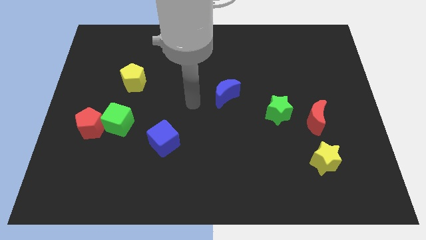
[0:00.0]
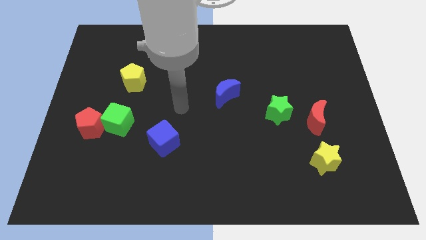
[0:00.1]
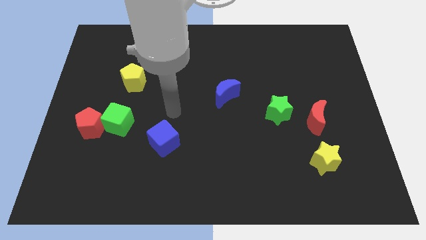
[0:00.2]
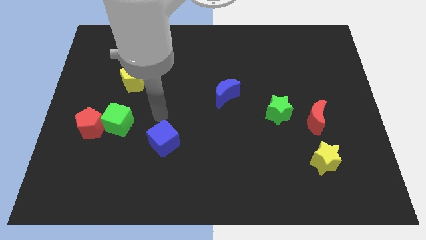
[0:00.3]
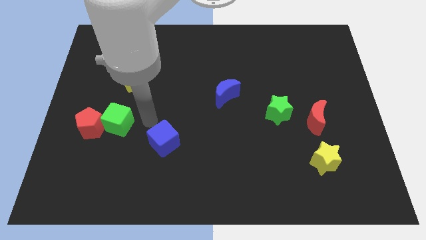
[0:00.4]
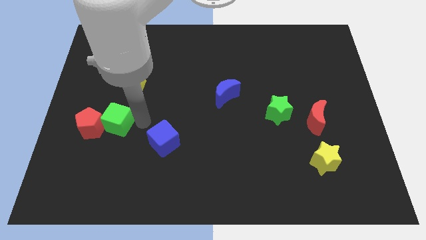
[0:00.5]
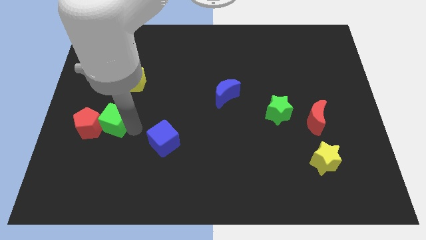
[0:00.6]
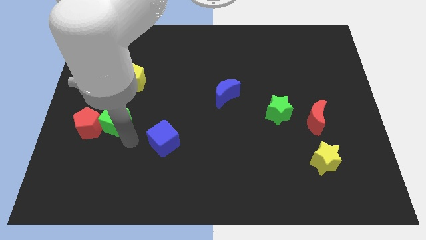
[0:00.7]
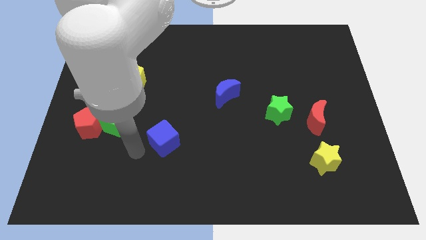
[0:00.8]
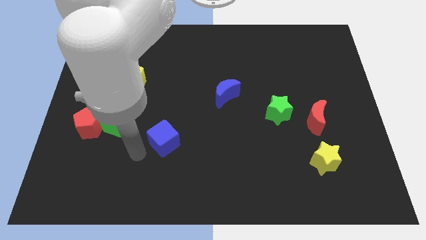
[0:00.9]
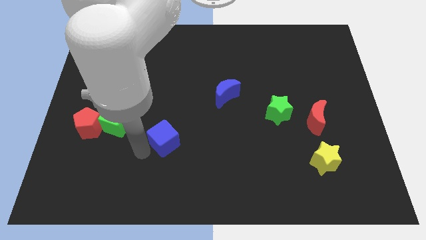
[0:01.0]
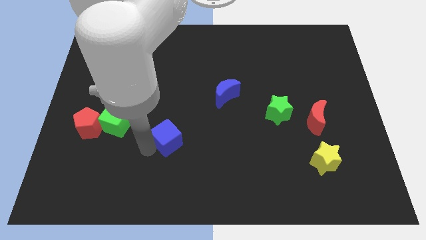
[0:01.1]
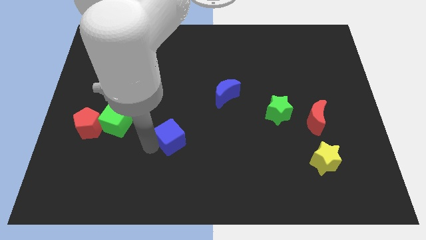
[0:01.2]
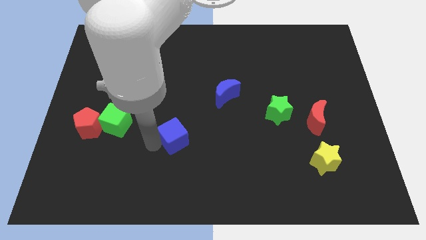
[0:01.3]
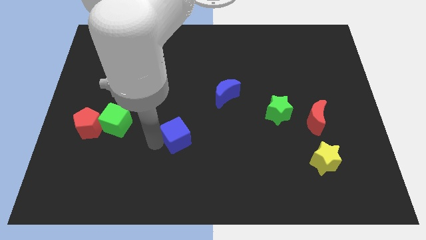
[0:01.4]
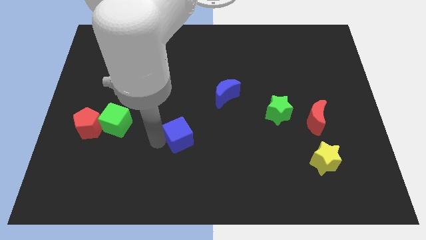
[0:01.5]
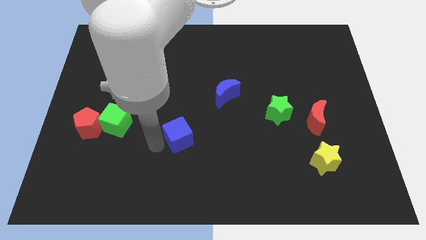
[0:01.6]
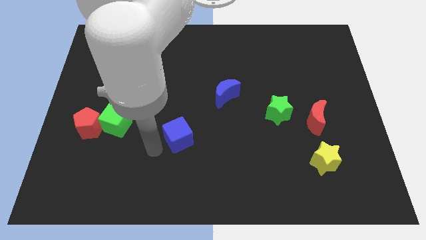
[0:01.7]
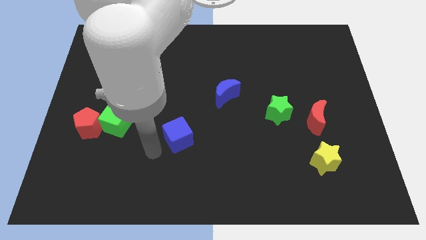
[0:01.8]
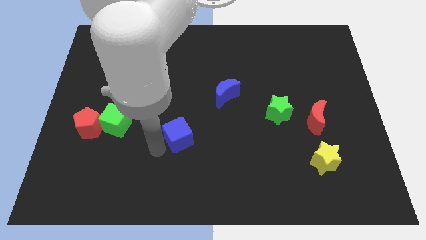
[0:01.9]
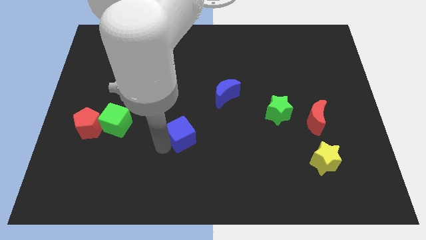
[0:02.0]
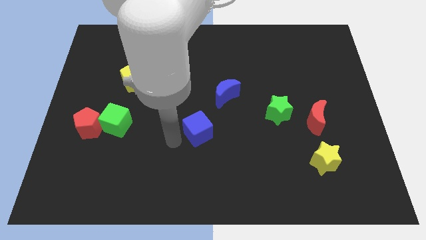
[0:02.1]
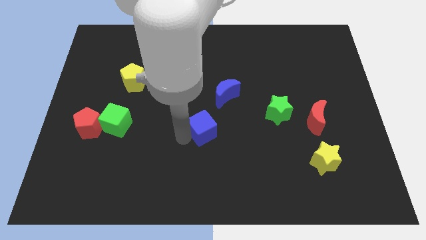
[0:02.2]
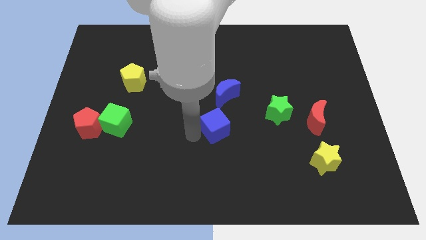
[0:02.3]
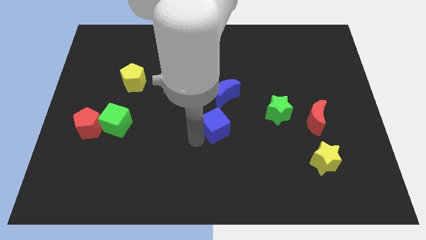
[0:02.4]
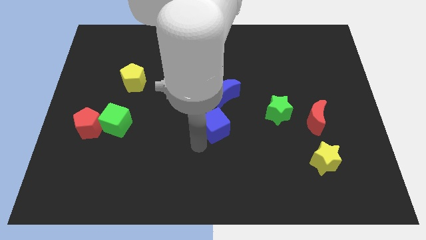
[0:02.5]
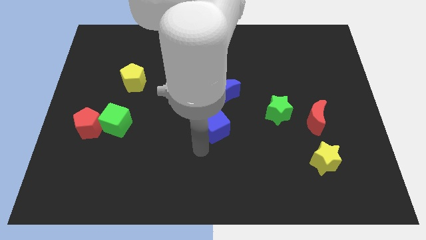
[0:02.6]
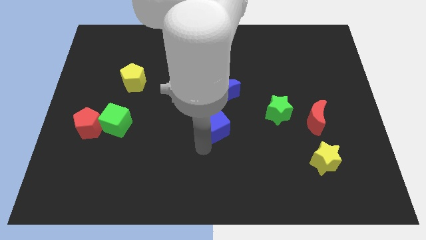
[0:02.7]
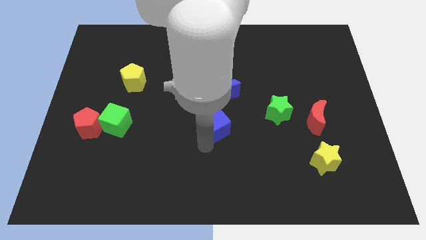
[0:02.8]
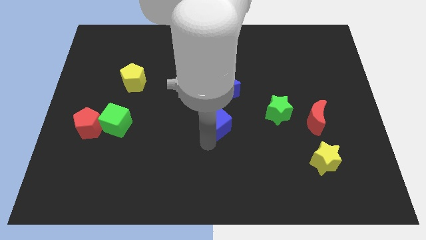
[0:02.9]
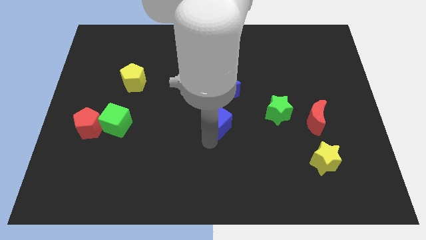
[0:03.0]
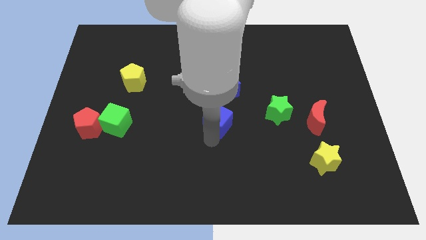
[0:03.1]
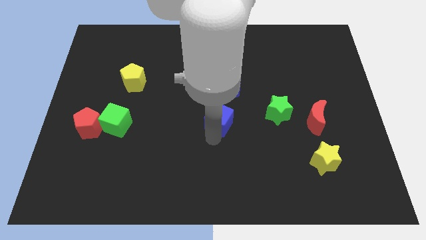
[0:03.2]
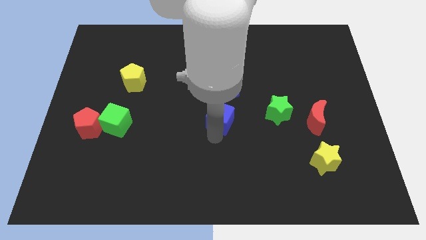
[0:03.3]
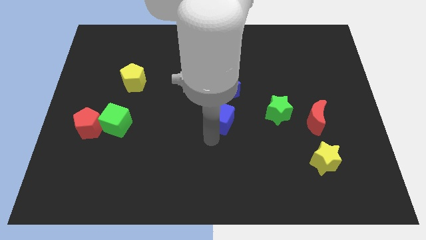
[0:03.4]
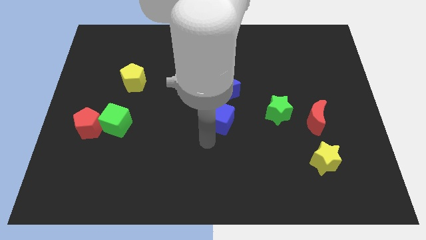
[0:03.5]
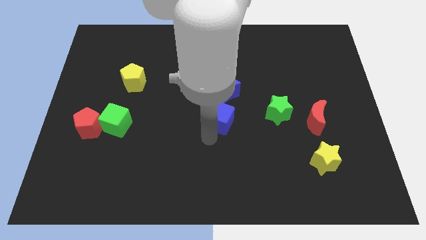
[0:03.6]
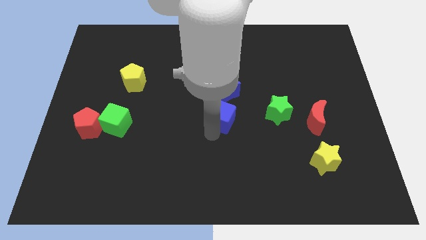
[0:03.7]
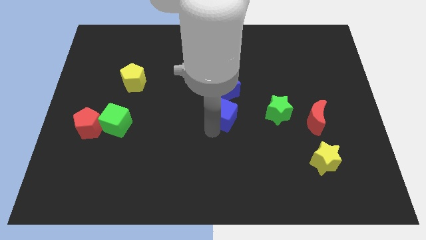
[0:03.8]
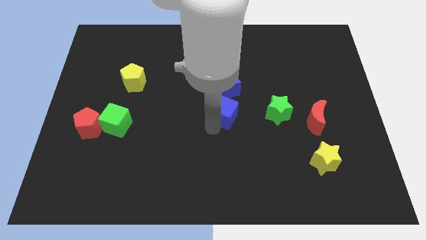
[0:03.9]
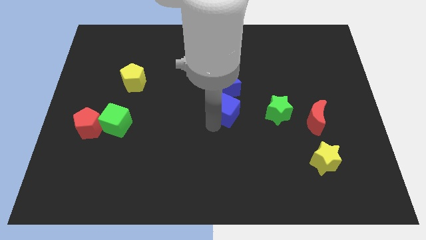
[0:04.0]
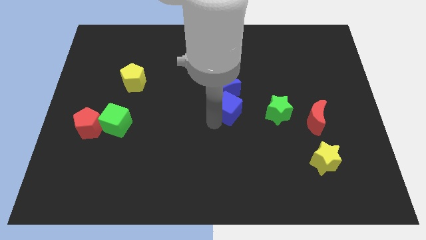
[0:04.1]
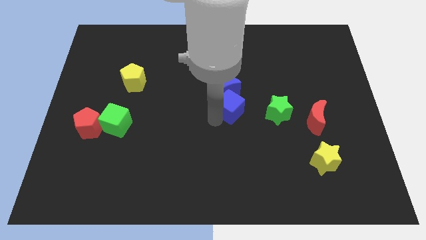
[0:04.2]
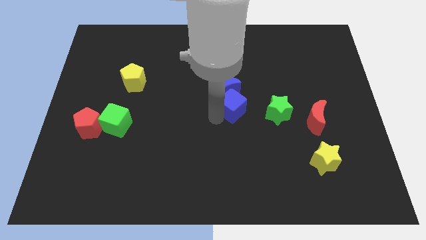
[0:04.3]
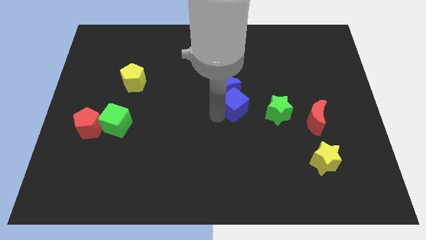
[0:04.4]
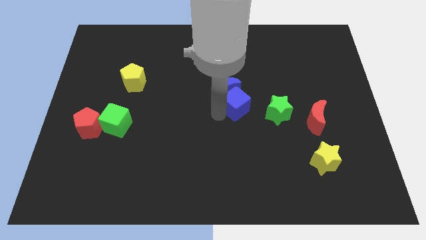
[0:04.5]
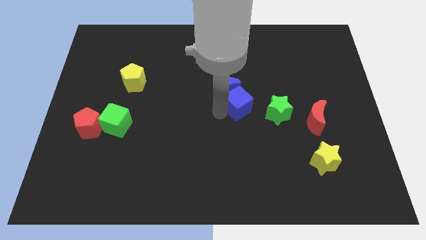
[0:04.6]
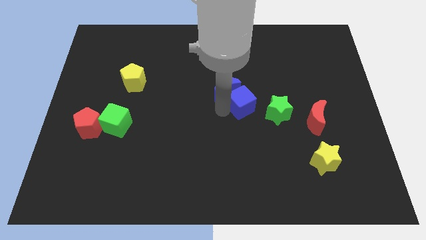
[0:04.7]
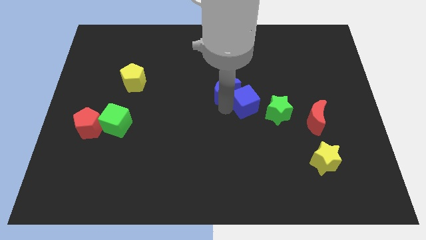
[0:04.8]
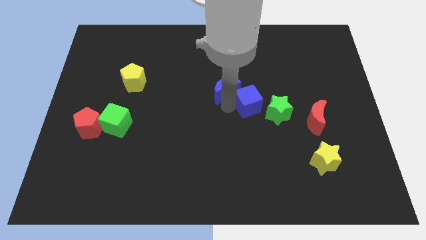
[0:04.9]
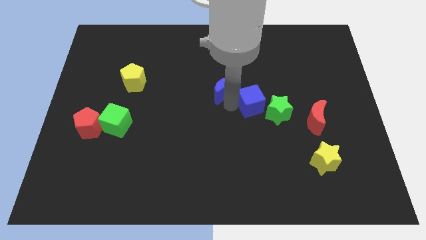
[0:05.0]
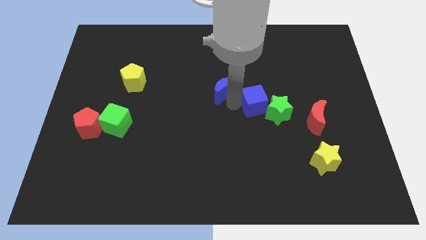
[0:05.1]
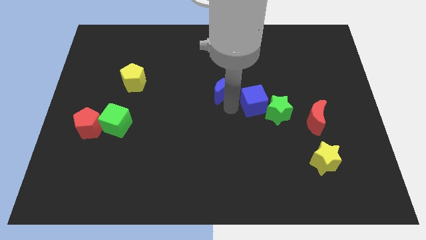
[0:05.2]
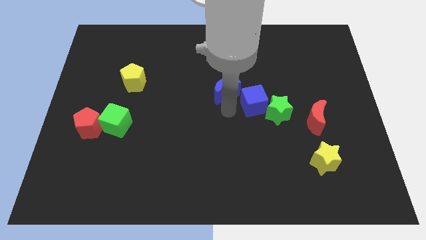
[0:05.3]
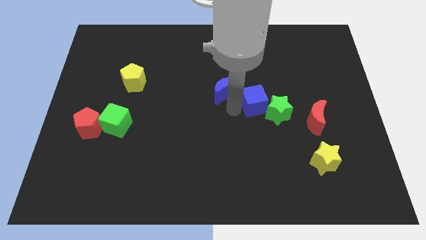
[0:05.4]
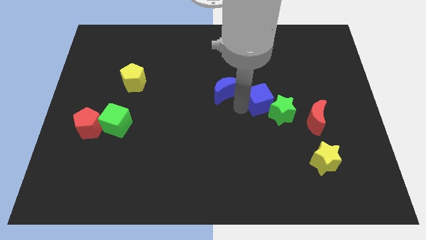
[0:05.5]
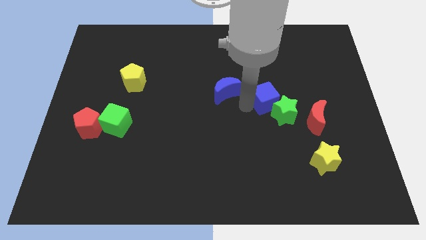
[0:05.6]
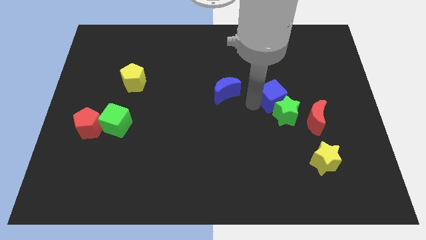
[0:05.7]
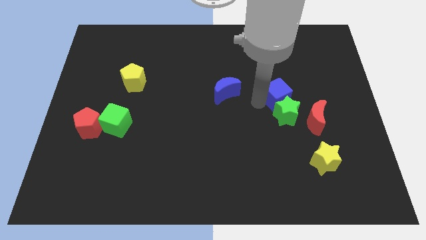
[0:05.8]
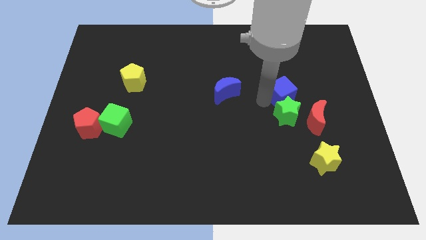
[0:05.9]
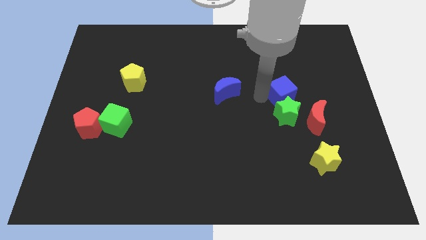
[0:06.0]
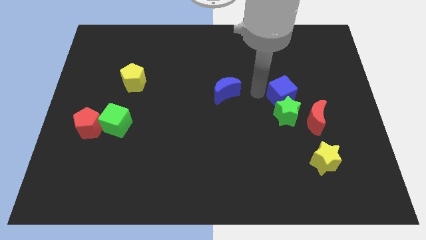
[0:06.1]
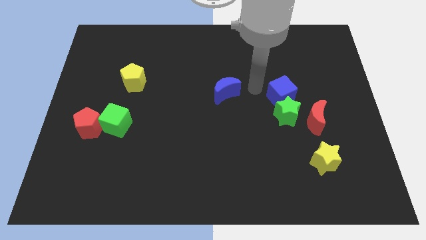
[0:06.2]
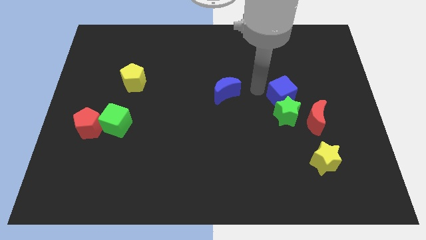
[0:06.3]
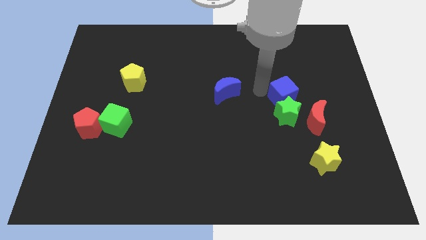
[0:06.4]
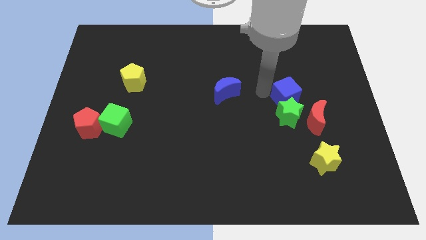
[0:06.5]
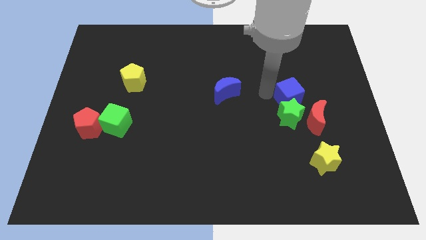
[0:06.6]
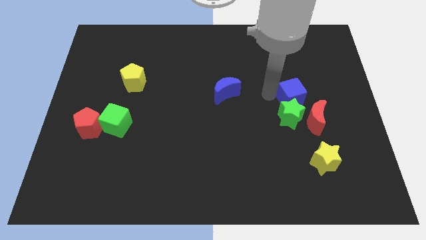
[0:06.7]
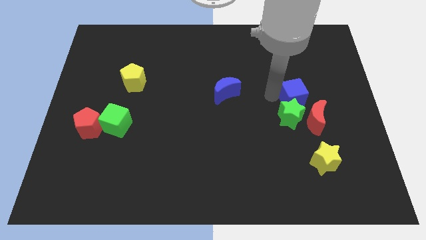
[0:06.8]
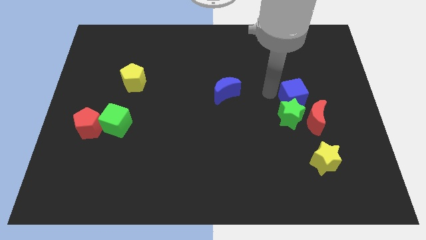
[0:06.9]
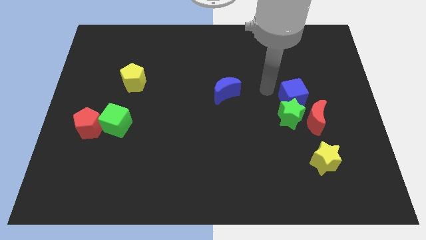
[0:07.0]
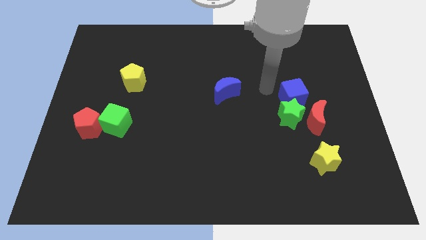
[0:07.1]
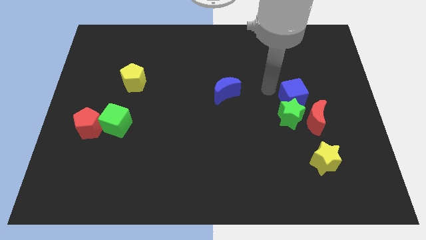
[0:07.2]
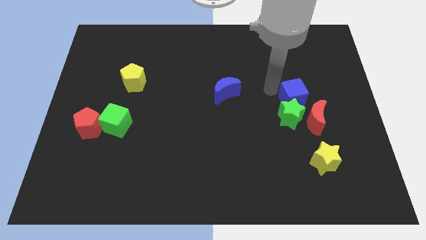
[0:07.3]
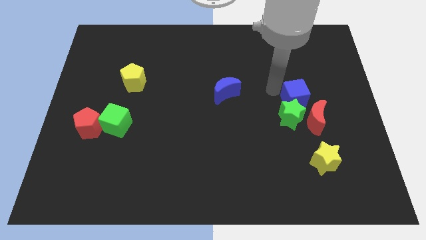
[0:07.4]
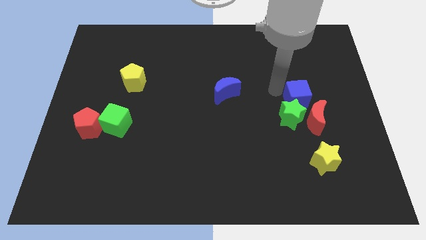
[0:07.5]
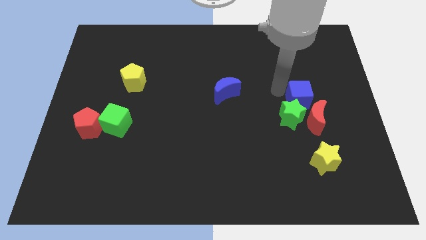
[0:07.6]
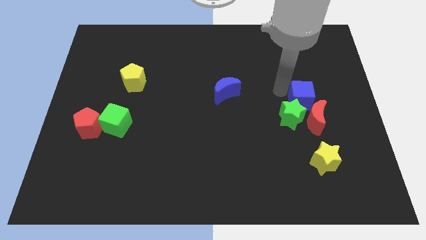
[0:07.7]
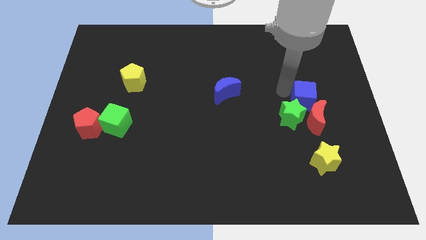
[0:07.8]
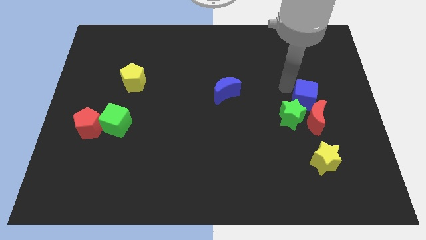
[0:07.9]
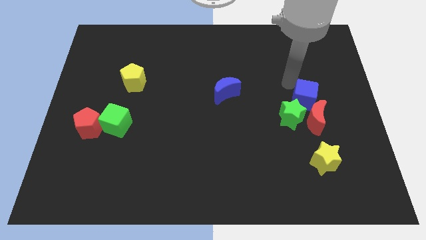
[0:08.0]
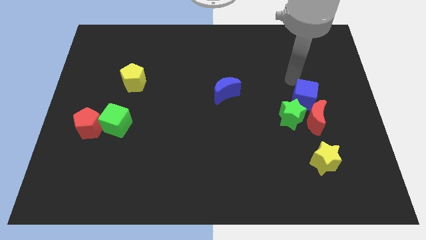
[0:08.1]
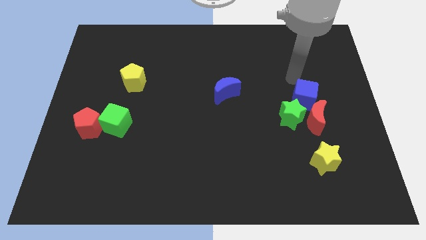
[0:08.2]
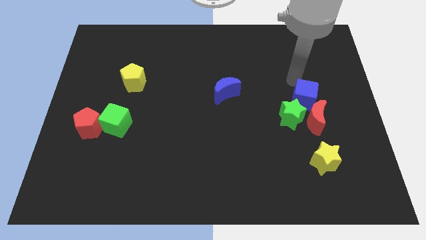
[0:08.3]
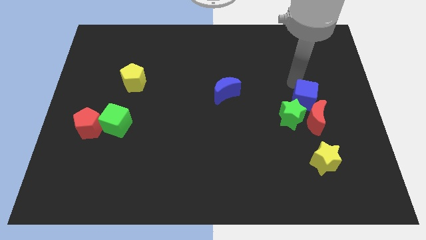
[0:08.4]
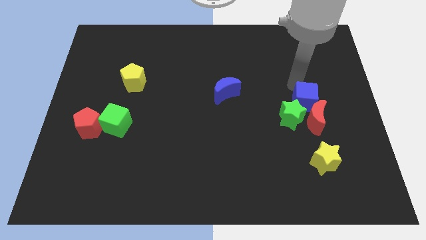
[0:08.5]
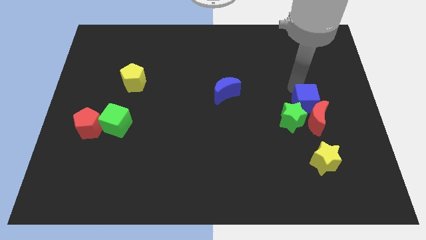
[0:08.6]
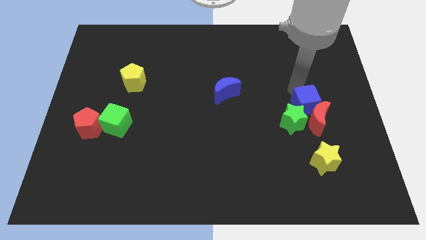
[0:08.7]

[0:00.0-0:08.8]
move the blue cube above the yellow star
